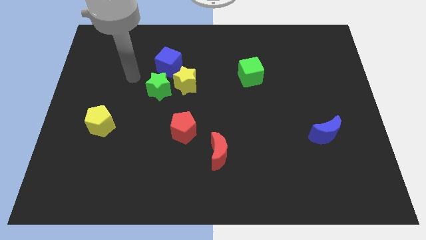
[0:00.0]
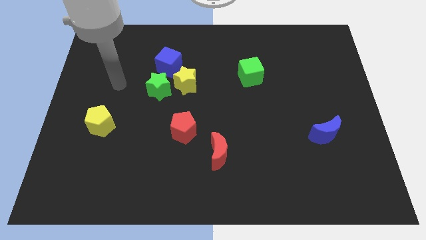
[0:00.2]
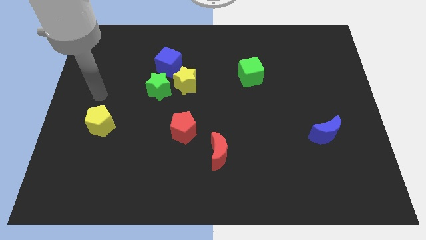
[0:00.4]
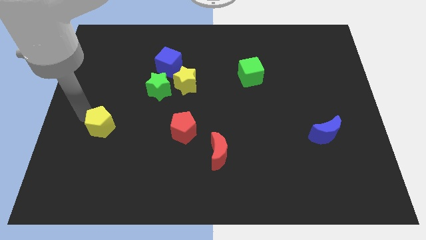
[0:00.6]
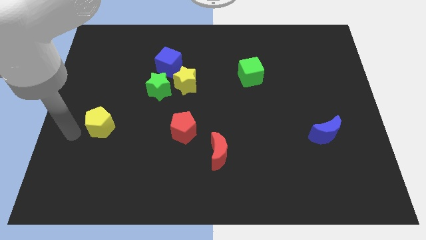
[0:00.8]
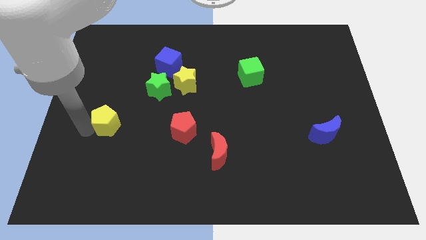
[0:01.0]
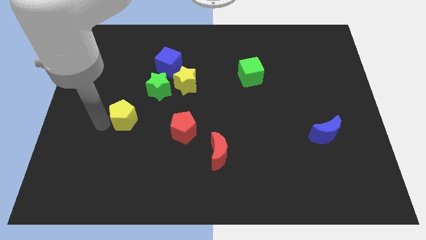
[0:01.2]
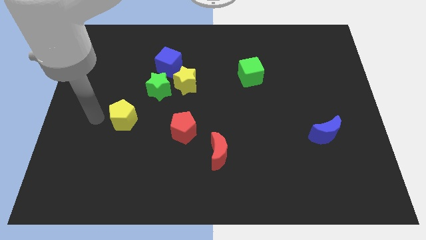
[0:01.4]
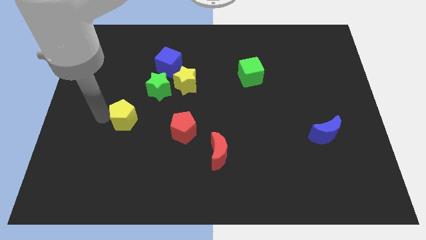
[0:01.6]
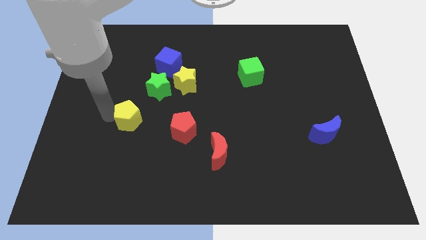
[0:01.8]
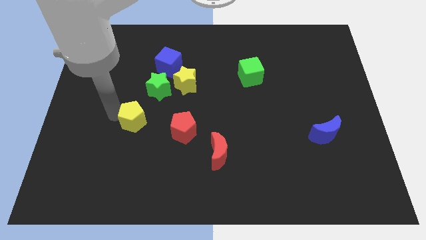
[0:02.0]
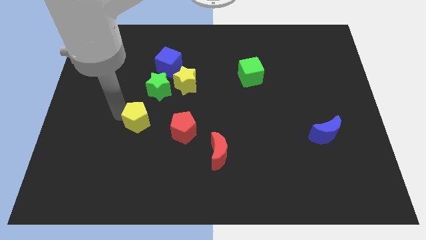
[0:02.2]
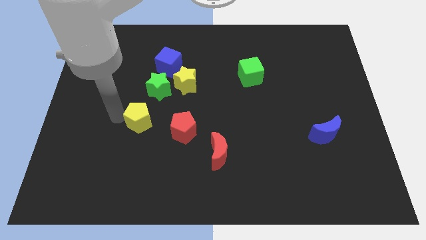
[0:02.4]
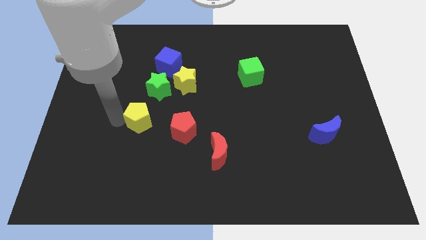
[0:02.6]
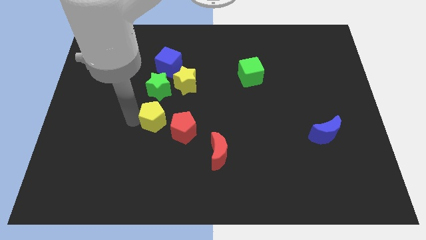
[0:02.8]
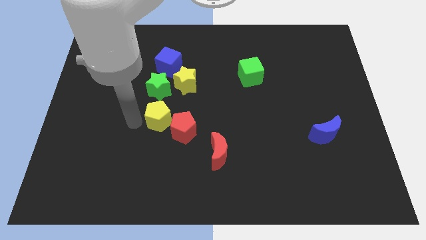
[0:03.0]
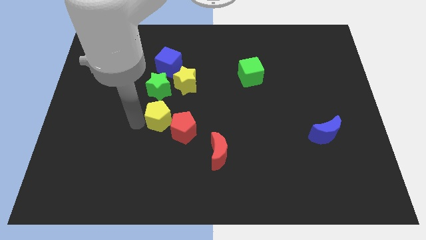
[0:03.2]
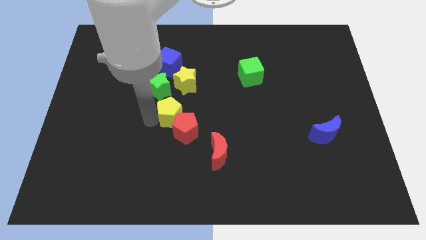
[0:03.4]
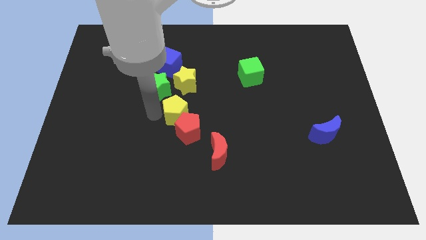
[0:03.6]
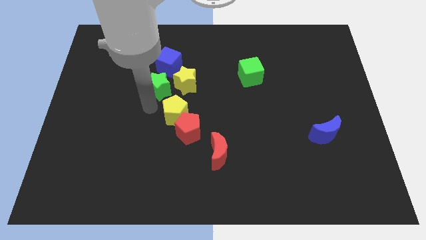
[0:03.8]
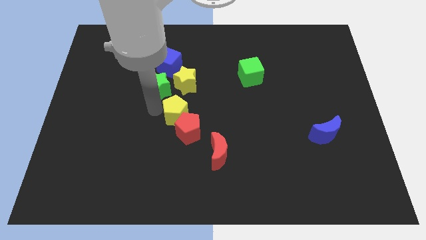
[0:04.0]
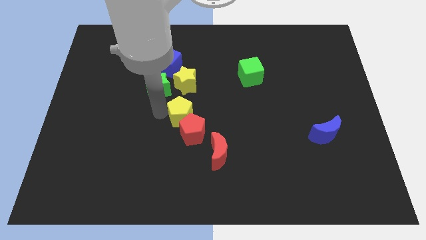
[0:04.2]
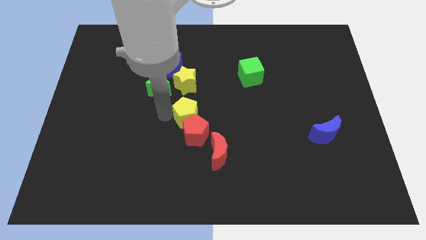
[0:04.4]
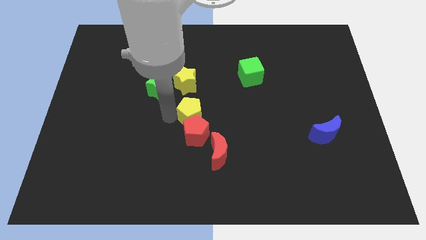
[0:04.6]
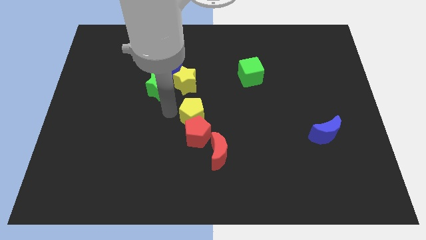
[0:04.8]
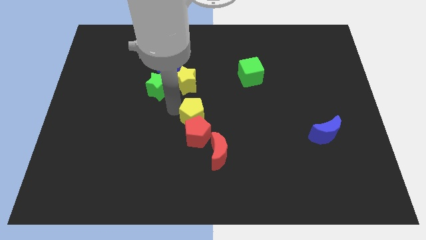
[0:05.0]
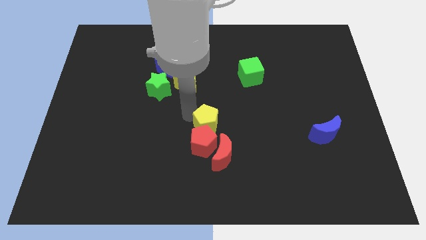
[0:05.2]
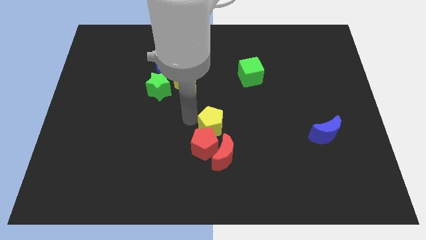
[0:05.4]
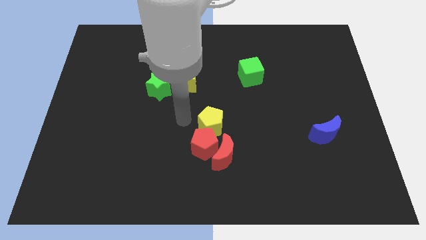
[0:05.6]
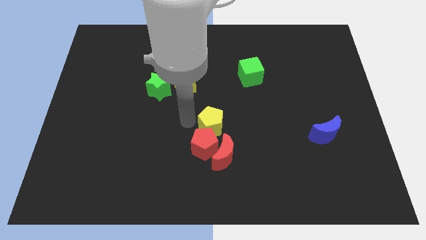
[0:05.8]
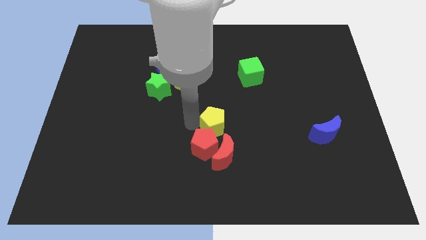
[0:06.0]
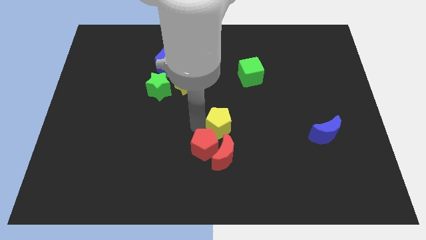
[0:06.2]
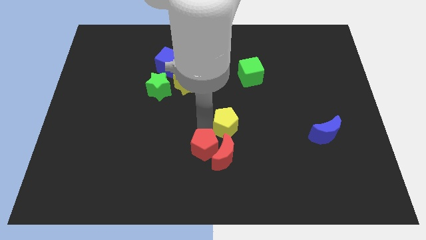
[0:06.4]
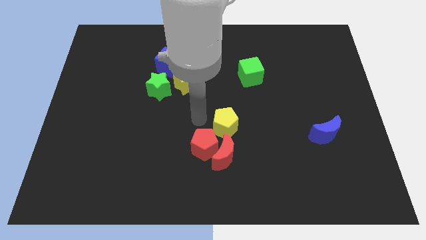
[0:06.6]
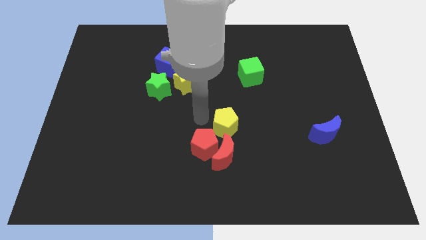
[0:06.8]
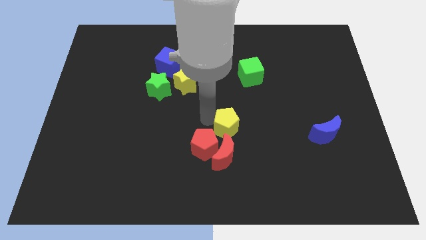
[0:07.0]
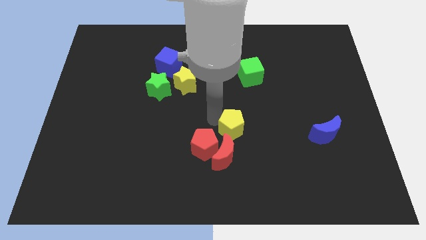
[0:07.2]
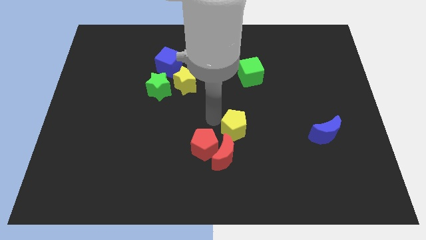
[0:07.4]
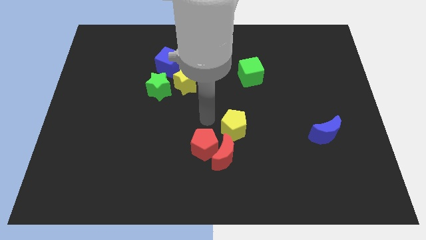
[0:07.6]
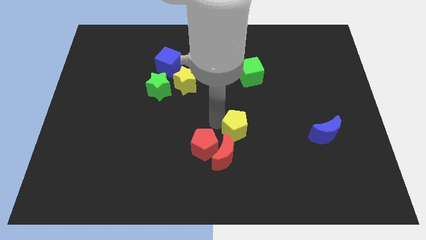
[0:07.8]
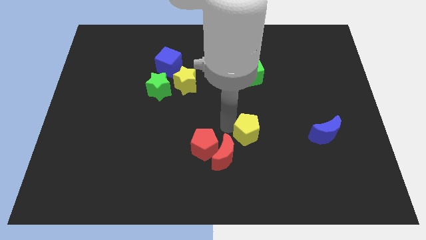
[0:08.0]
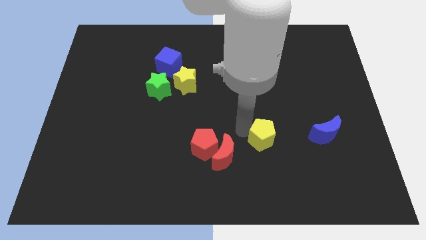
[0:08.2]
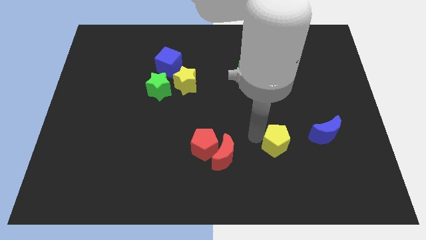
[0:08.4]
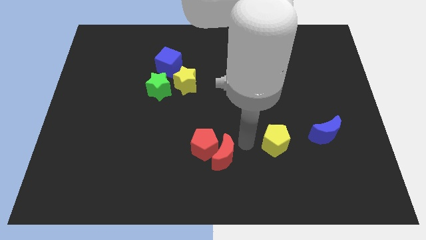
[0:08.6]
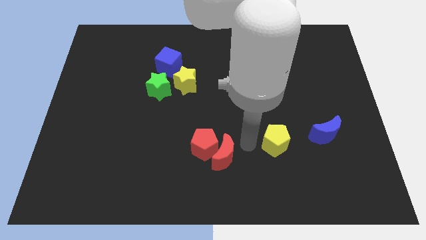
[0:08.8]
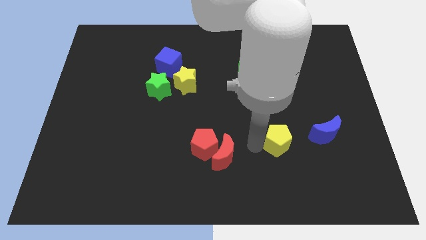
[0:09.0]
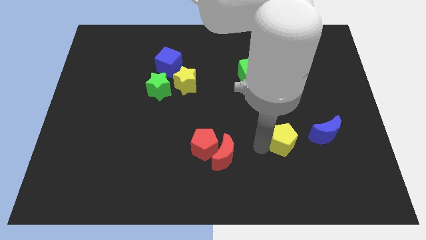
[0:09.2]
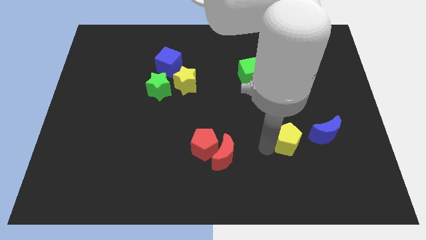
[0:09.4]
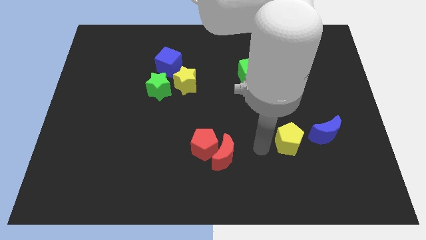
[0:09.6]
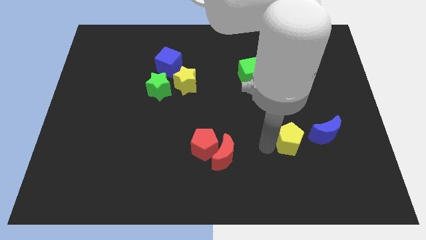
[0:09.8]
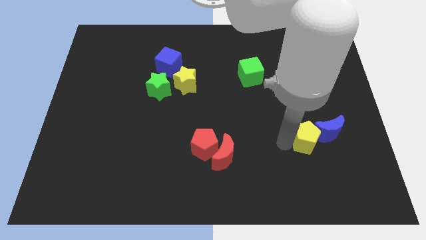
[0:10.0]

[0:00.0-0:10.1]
move the yellow pentagon close to the blue moon

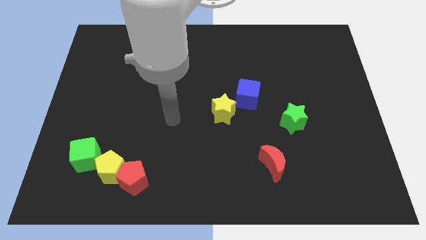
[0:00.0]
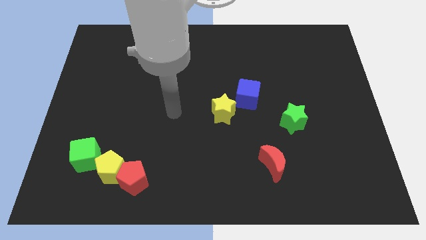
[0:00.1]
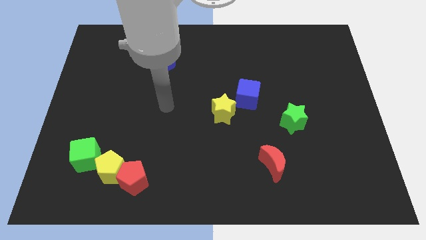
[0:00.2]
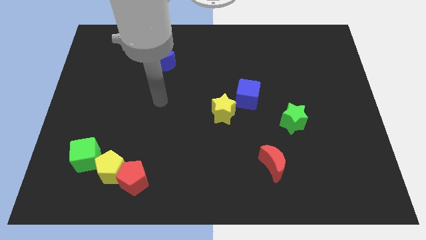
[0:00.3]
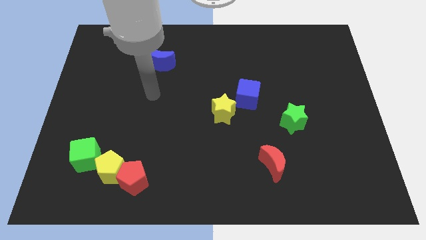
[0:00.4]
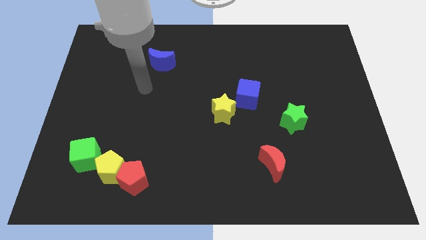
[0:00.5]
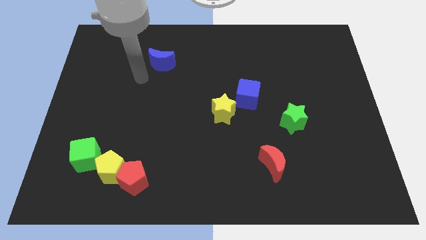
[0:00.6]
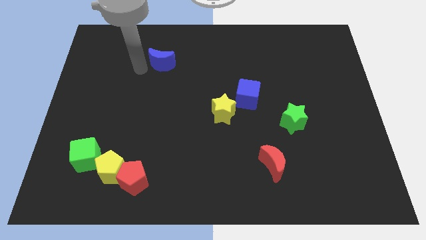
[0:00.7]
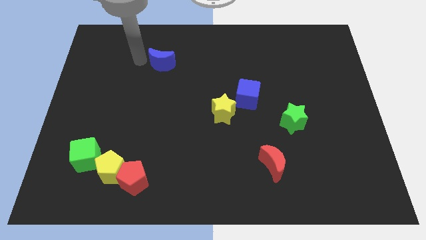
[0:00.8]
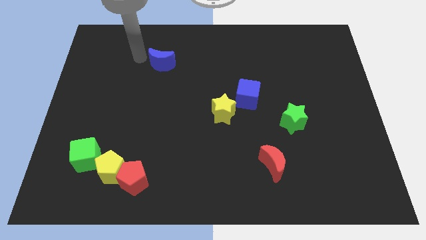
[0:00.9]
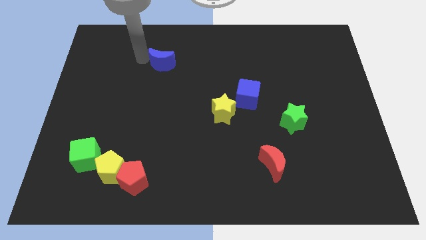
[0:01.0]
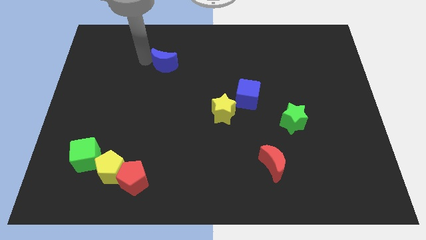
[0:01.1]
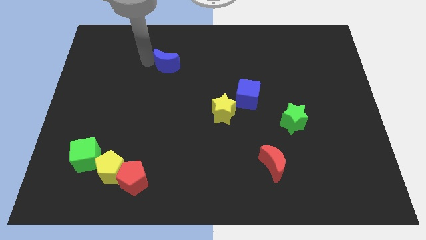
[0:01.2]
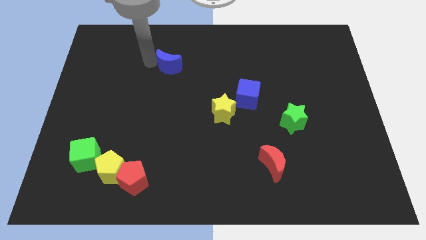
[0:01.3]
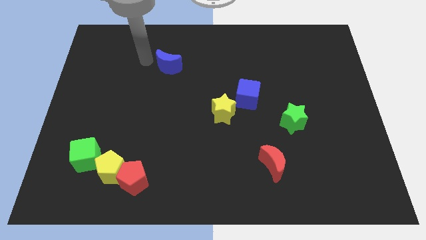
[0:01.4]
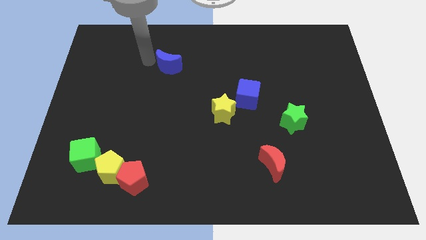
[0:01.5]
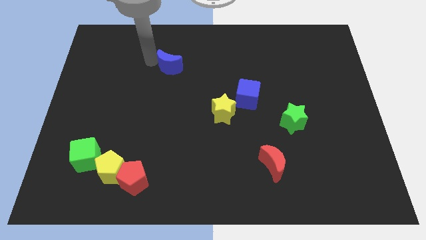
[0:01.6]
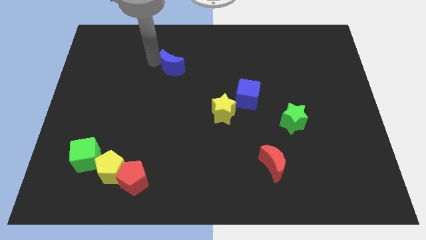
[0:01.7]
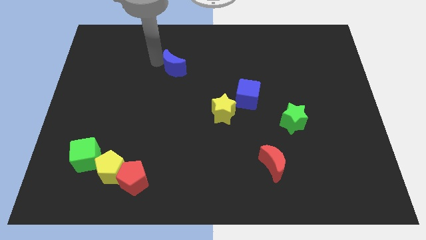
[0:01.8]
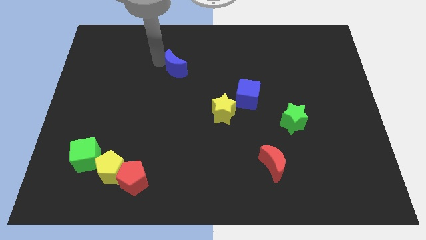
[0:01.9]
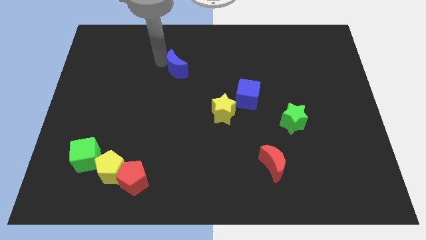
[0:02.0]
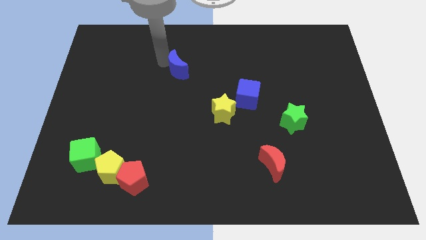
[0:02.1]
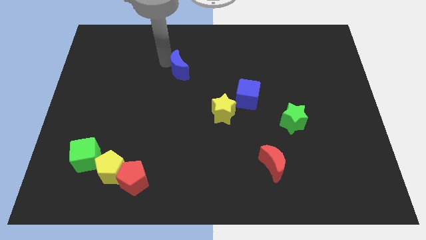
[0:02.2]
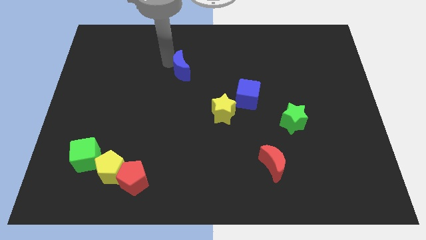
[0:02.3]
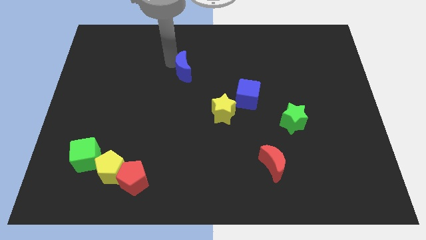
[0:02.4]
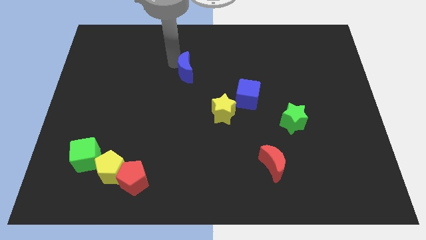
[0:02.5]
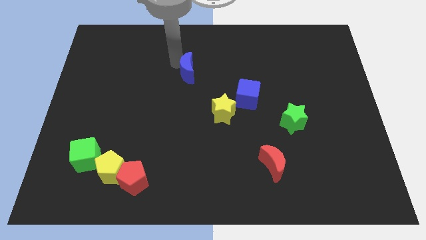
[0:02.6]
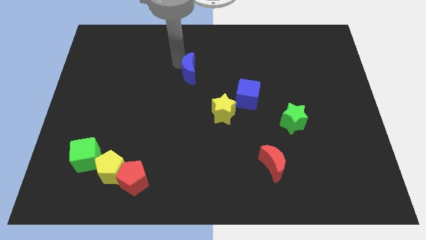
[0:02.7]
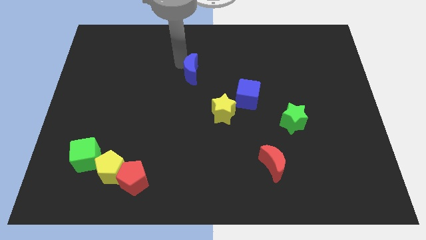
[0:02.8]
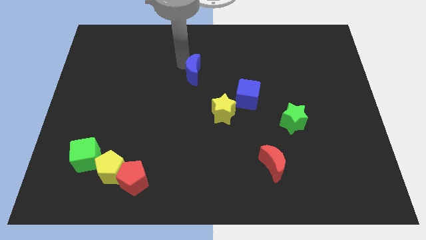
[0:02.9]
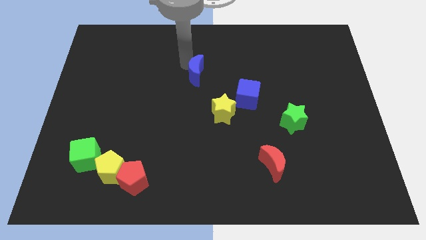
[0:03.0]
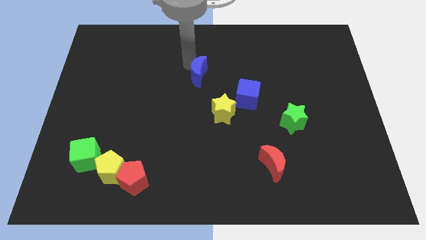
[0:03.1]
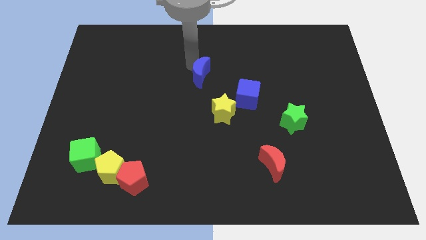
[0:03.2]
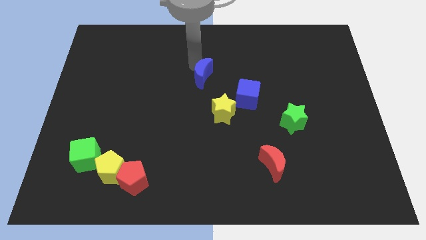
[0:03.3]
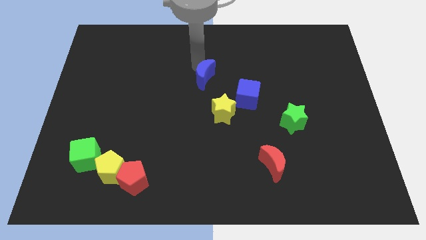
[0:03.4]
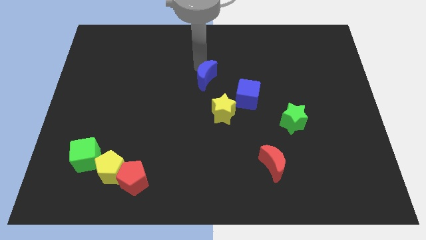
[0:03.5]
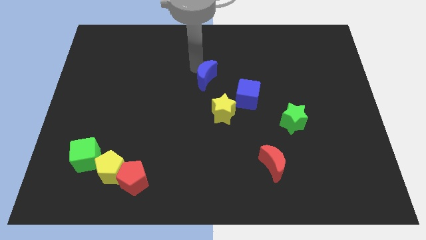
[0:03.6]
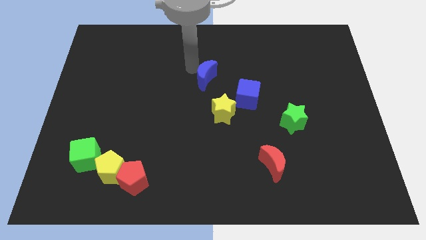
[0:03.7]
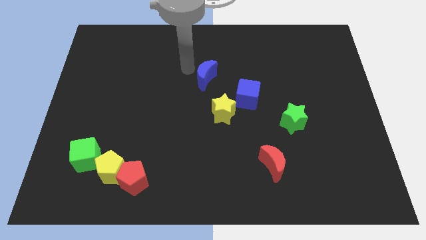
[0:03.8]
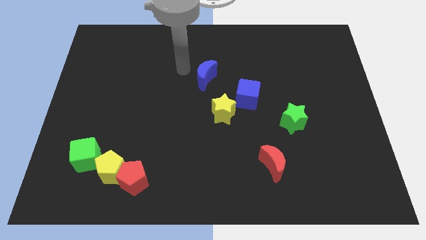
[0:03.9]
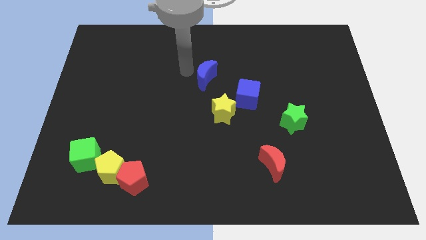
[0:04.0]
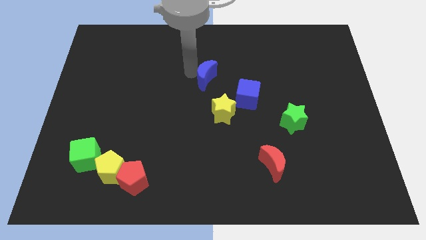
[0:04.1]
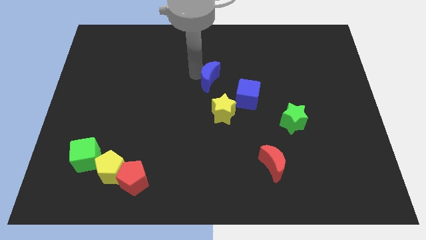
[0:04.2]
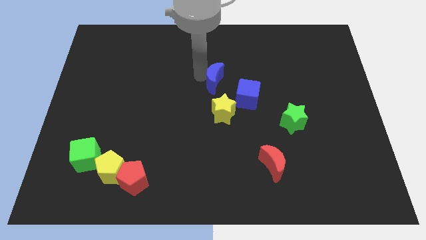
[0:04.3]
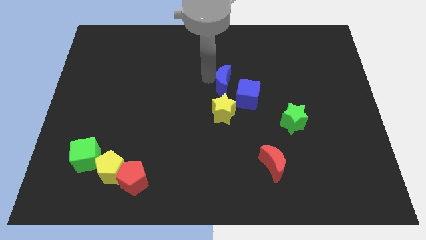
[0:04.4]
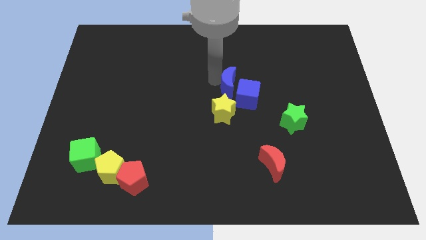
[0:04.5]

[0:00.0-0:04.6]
move the blue moon to the blue cube
